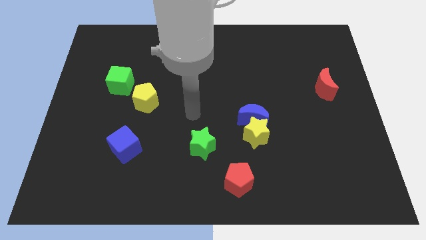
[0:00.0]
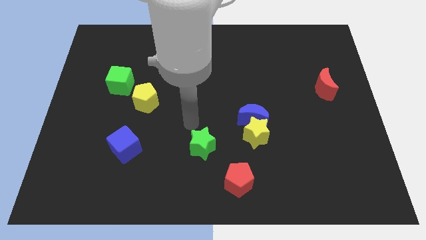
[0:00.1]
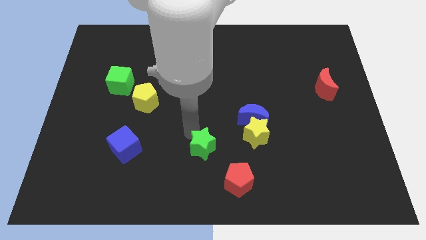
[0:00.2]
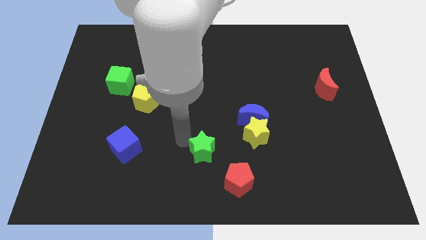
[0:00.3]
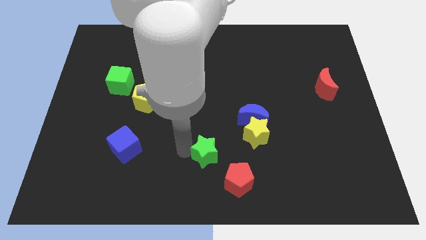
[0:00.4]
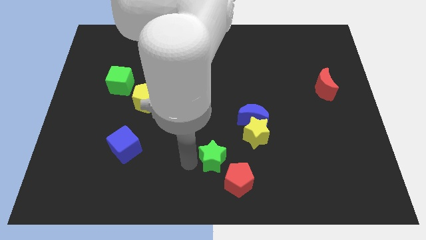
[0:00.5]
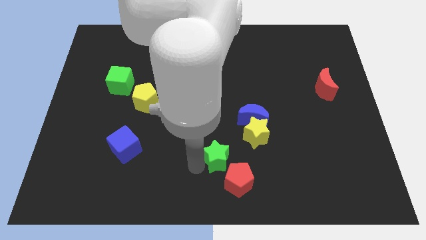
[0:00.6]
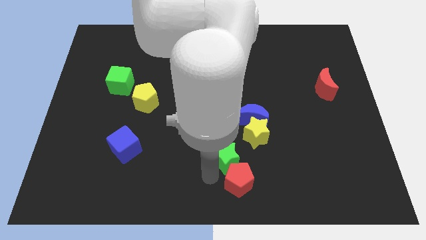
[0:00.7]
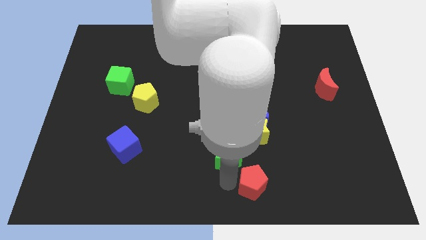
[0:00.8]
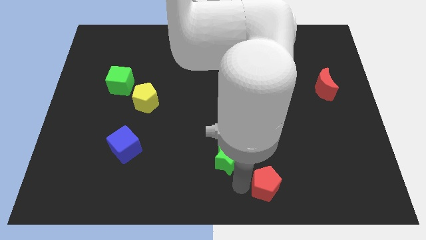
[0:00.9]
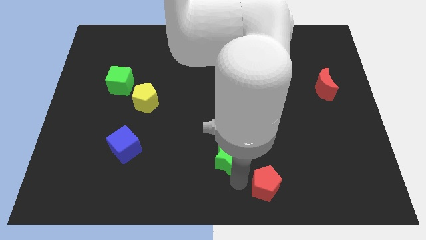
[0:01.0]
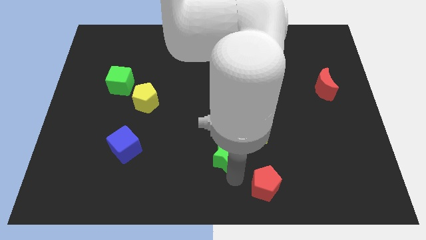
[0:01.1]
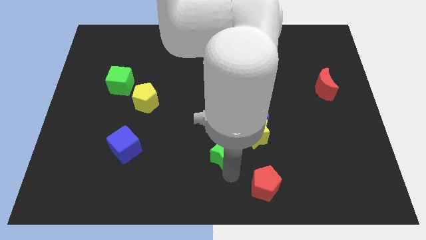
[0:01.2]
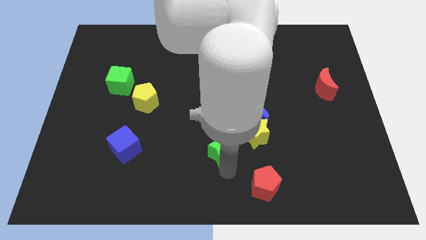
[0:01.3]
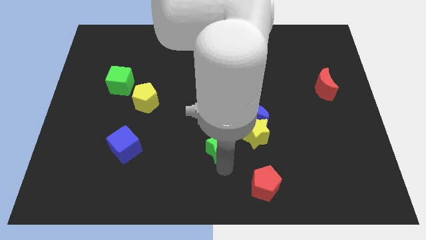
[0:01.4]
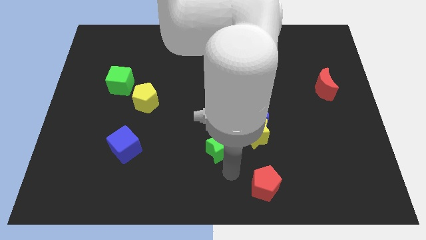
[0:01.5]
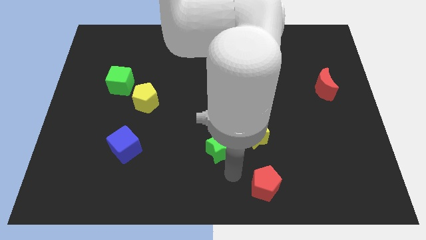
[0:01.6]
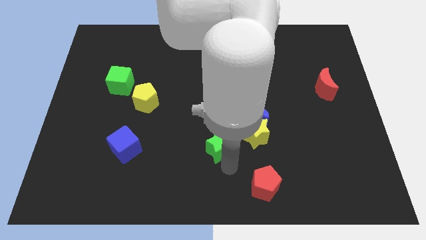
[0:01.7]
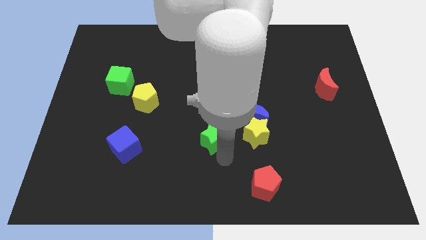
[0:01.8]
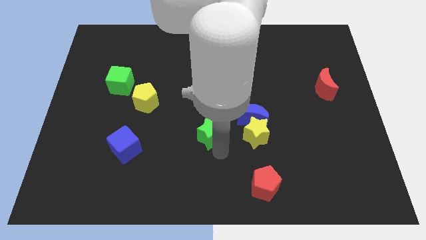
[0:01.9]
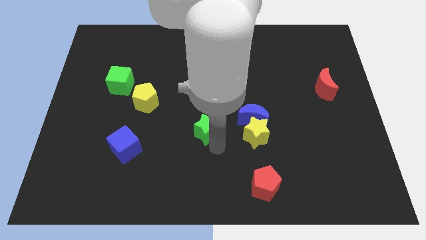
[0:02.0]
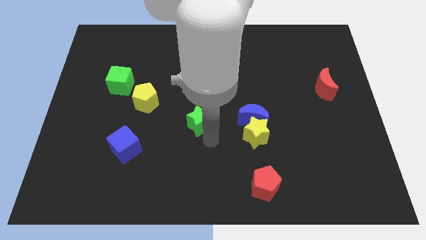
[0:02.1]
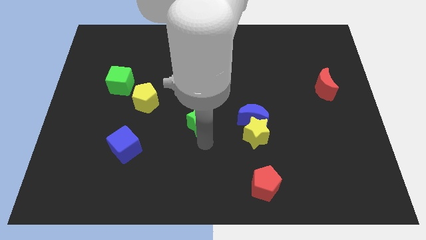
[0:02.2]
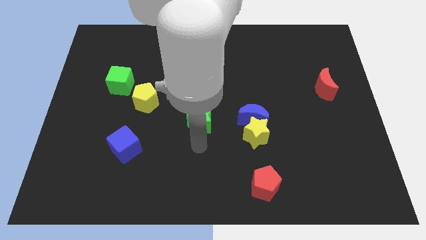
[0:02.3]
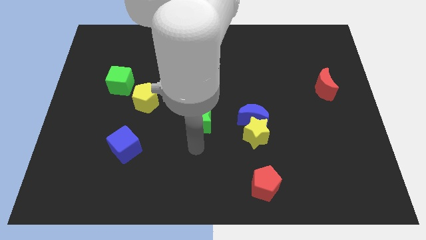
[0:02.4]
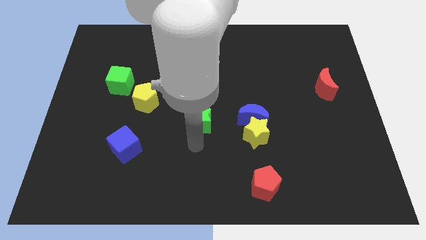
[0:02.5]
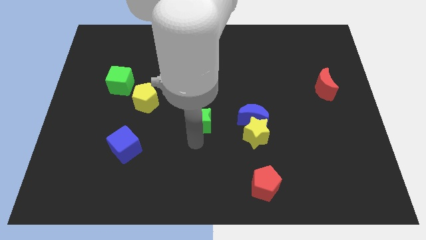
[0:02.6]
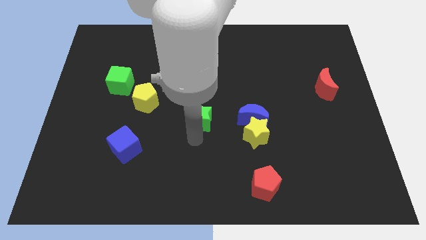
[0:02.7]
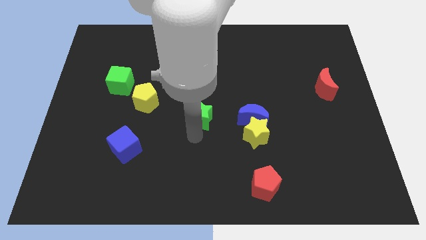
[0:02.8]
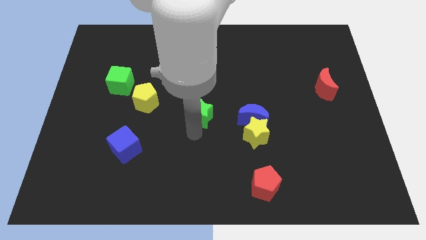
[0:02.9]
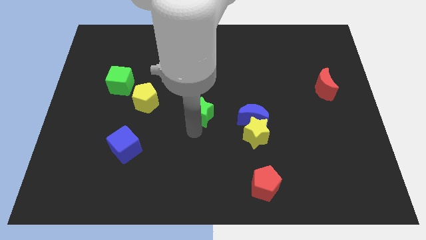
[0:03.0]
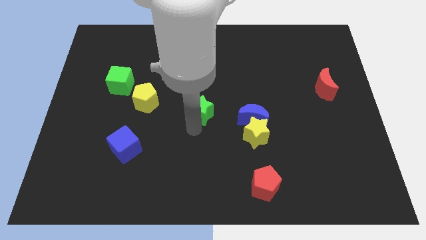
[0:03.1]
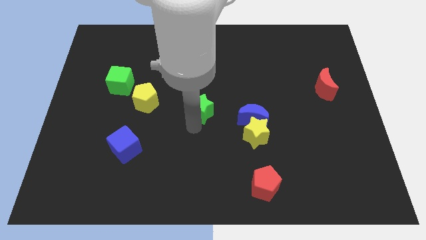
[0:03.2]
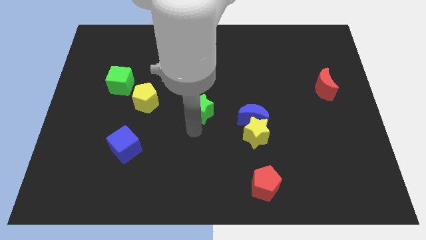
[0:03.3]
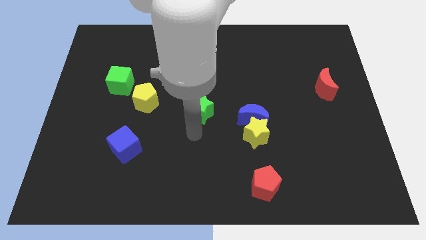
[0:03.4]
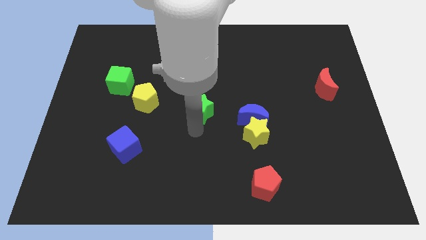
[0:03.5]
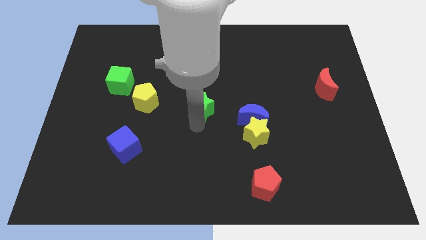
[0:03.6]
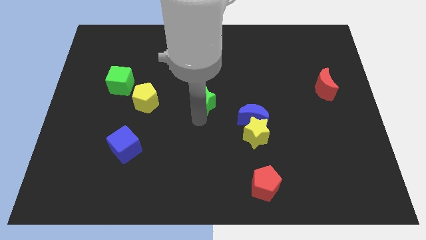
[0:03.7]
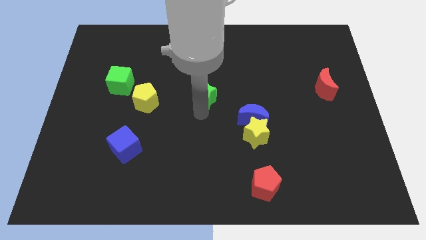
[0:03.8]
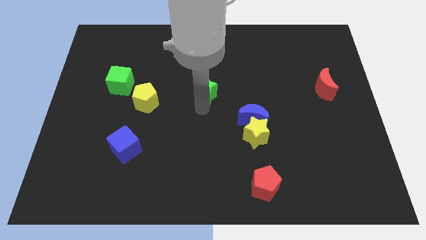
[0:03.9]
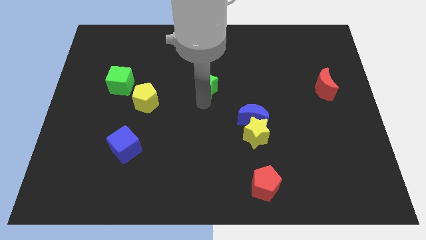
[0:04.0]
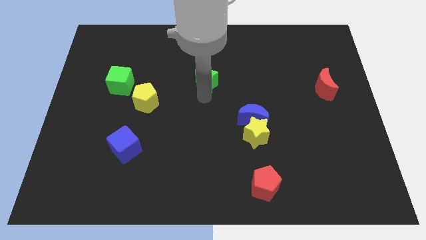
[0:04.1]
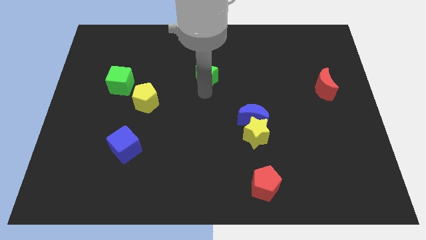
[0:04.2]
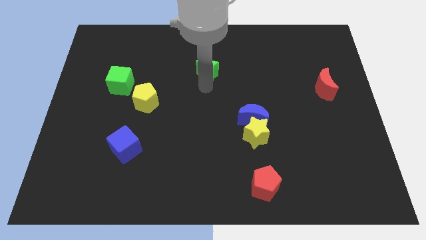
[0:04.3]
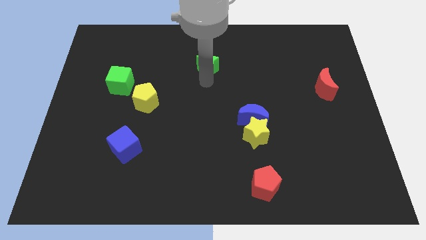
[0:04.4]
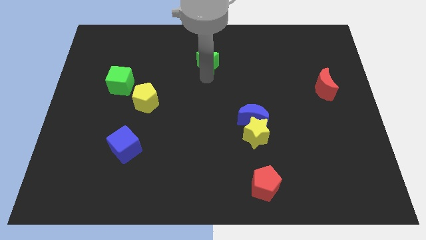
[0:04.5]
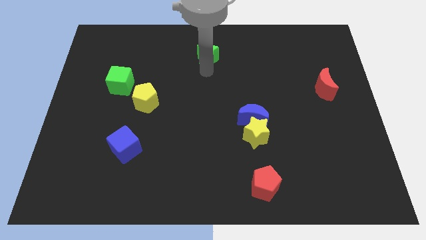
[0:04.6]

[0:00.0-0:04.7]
move the green star to the top

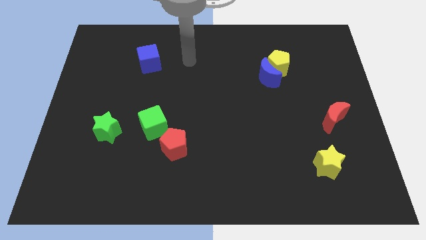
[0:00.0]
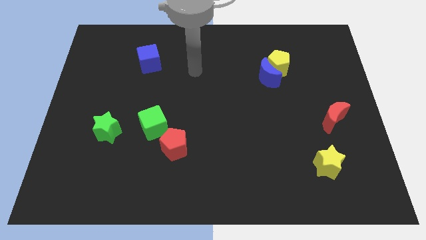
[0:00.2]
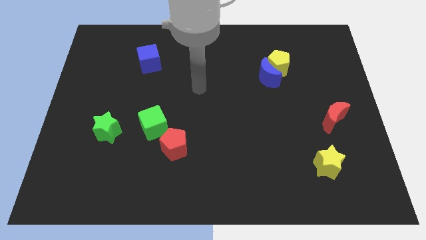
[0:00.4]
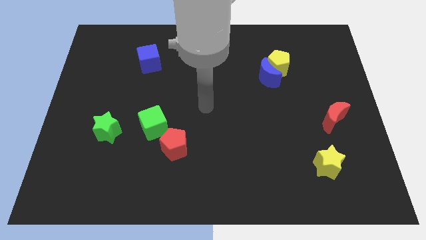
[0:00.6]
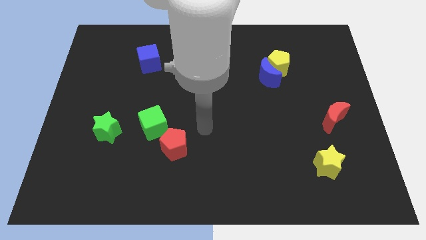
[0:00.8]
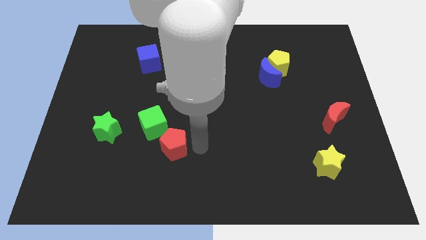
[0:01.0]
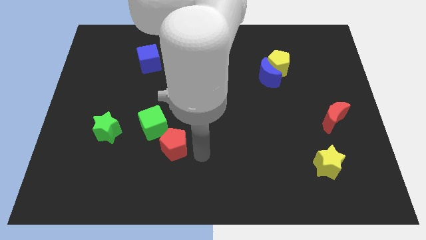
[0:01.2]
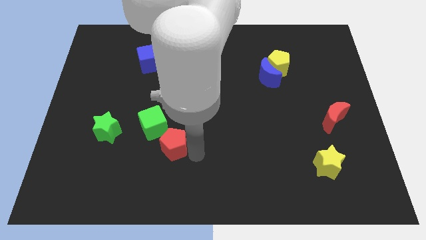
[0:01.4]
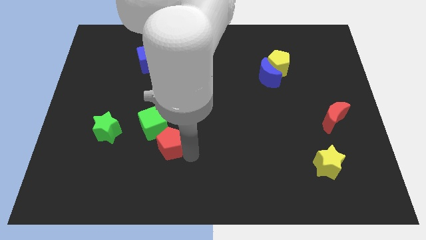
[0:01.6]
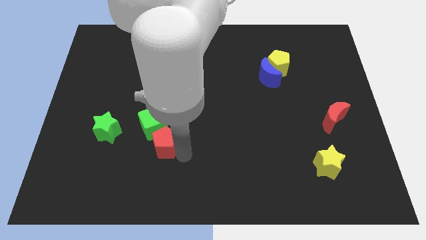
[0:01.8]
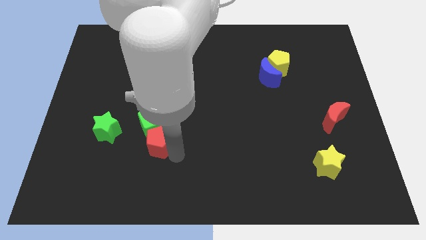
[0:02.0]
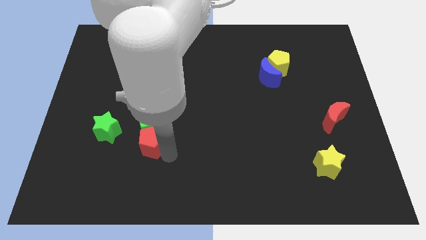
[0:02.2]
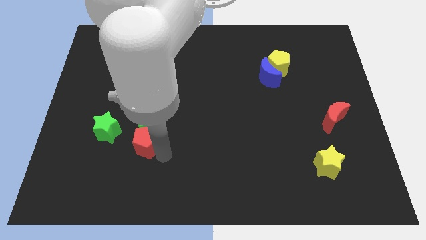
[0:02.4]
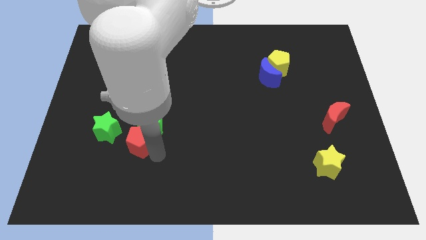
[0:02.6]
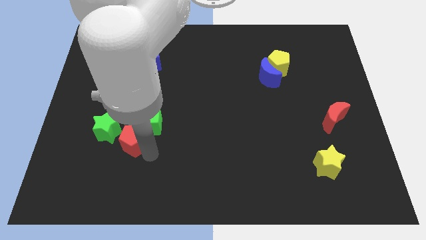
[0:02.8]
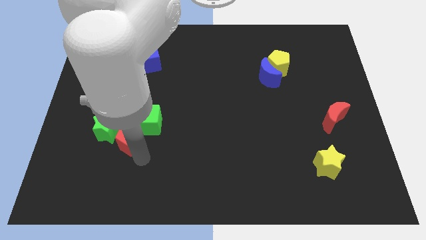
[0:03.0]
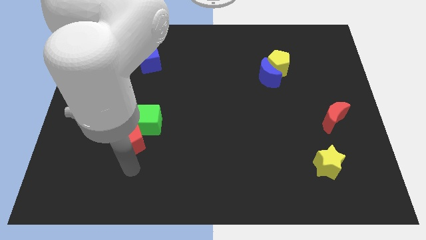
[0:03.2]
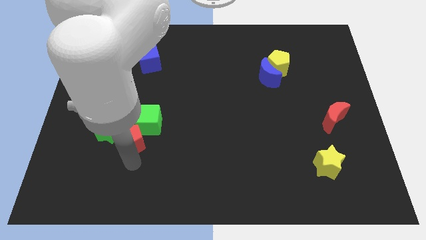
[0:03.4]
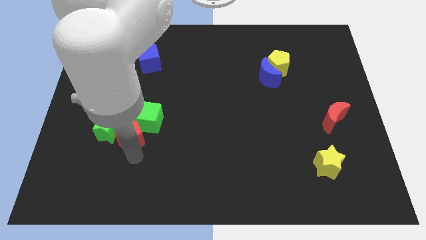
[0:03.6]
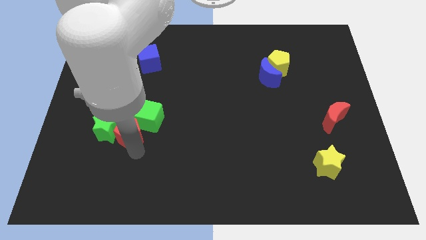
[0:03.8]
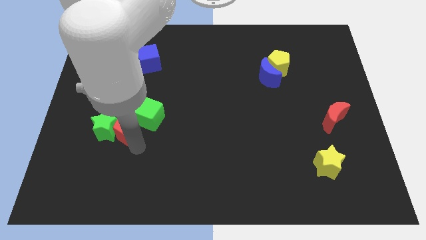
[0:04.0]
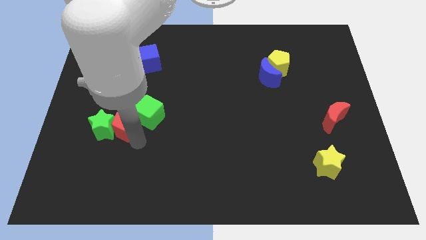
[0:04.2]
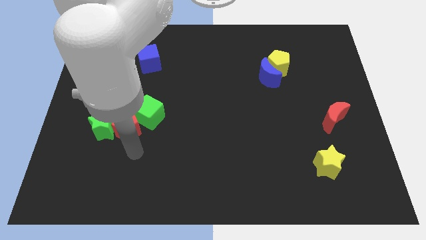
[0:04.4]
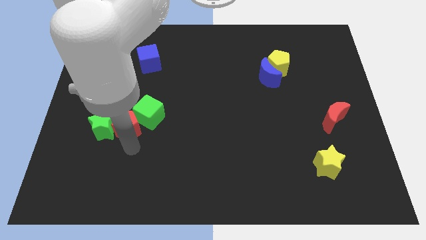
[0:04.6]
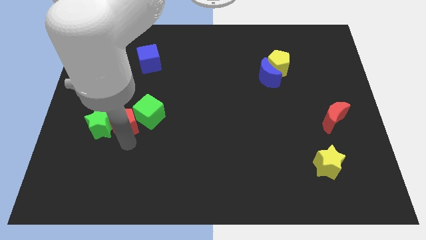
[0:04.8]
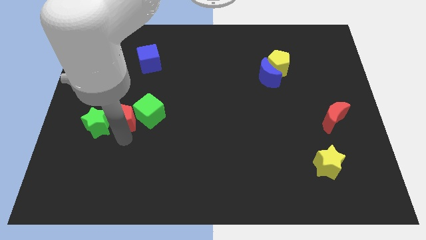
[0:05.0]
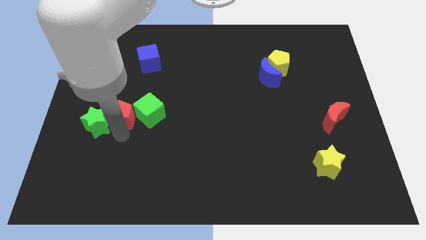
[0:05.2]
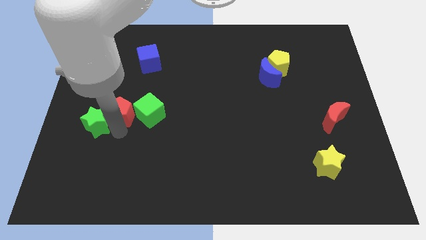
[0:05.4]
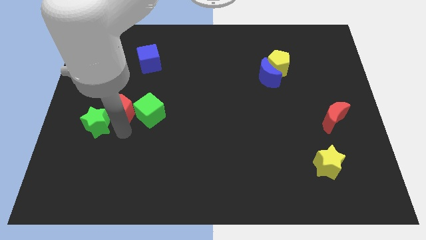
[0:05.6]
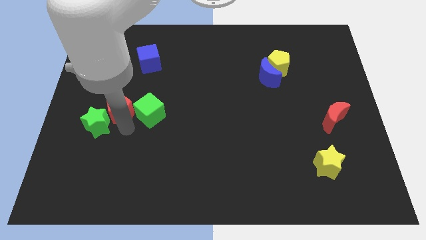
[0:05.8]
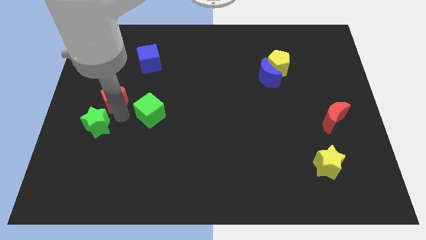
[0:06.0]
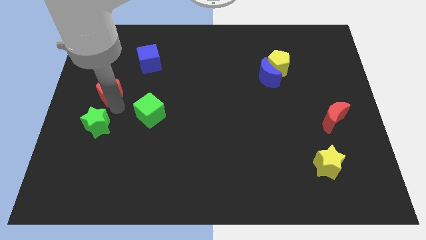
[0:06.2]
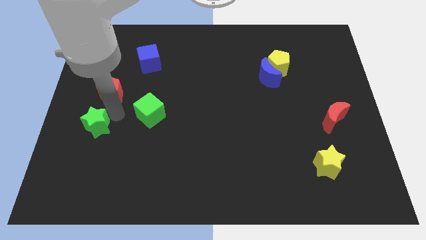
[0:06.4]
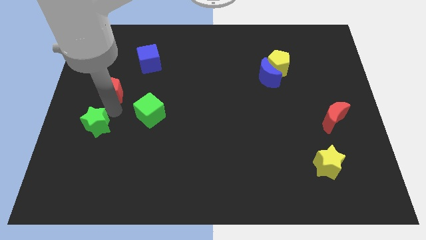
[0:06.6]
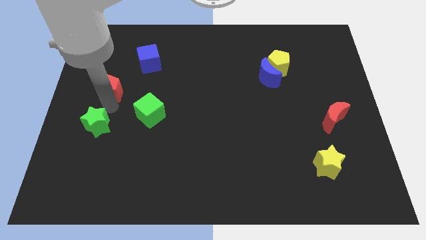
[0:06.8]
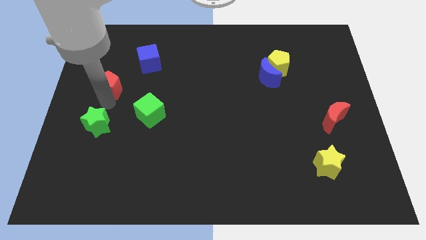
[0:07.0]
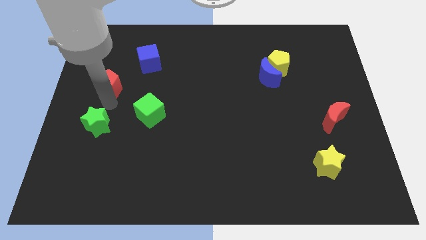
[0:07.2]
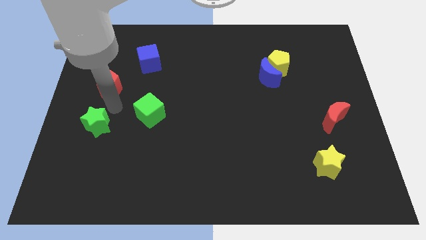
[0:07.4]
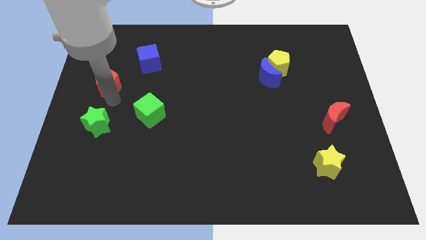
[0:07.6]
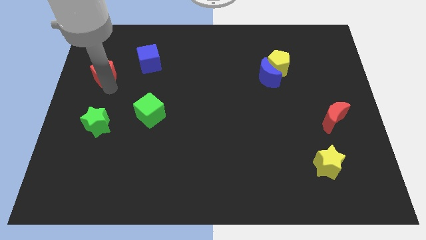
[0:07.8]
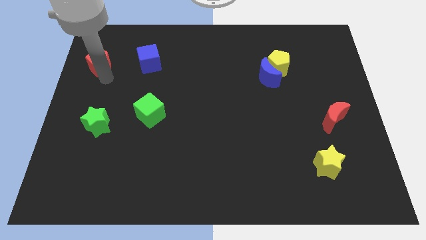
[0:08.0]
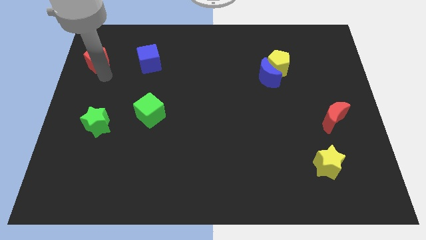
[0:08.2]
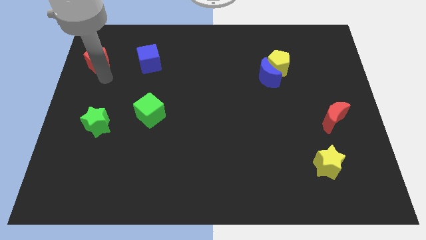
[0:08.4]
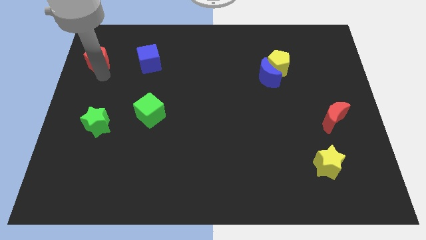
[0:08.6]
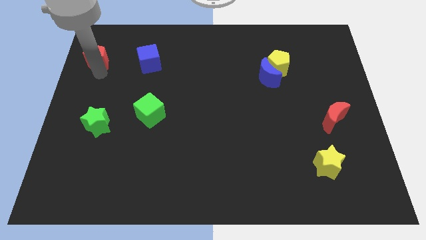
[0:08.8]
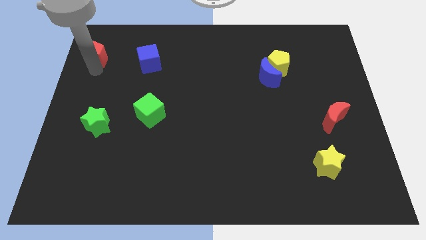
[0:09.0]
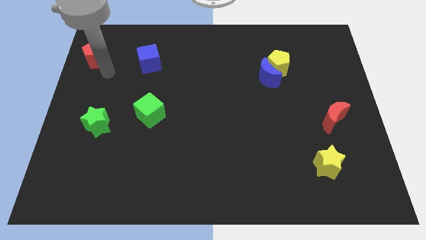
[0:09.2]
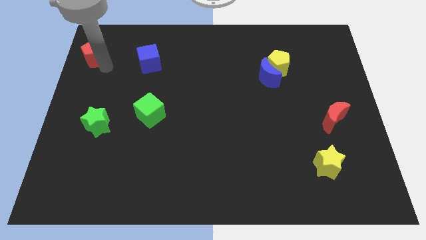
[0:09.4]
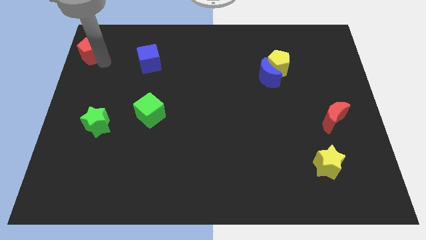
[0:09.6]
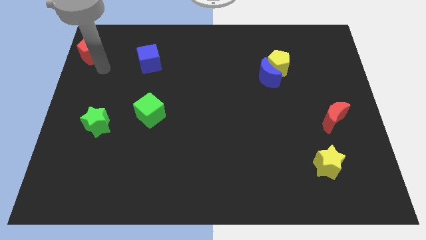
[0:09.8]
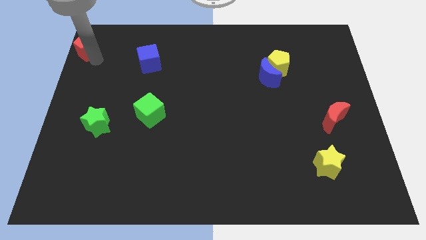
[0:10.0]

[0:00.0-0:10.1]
push the red pentagon to the top left
